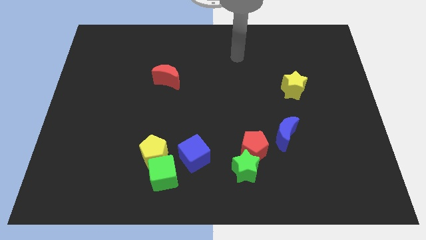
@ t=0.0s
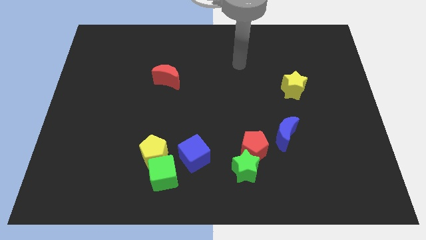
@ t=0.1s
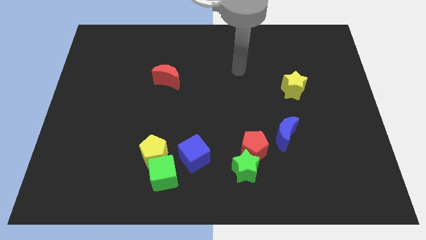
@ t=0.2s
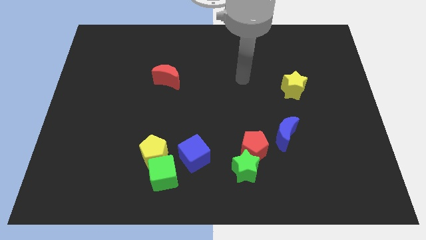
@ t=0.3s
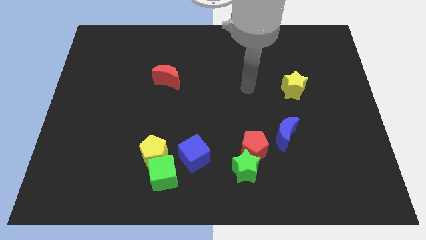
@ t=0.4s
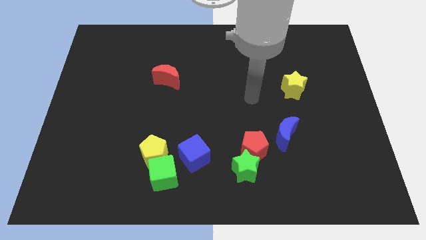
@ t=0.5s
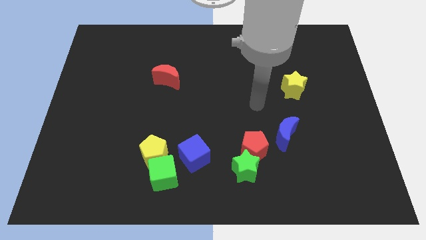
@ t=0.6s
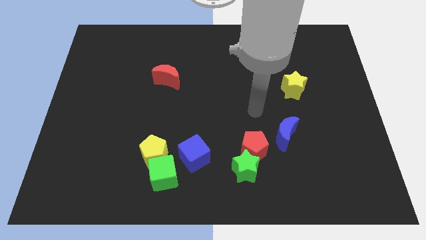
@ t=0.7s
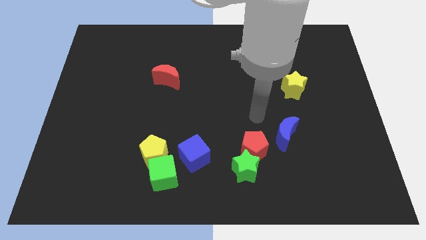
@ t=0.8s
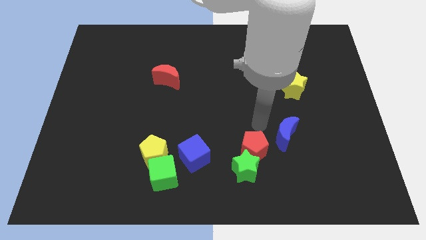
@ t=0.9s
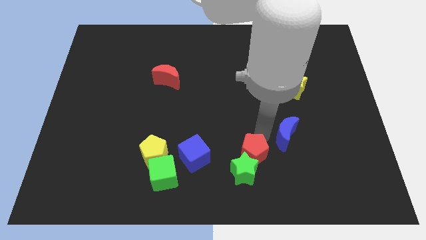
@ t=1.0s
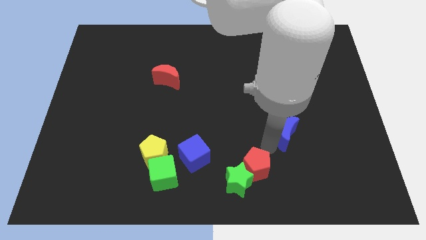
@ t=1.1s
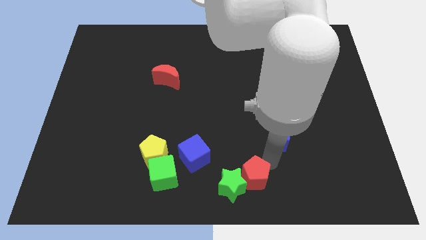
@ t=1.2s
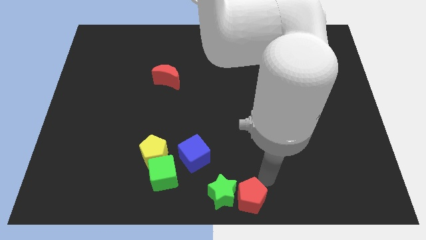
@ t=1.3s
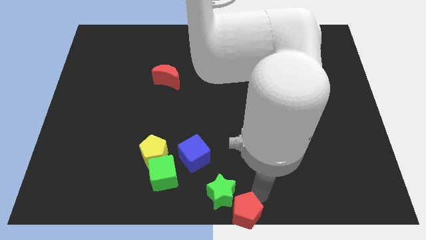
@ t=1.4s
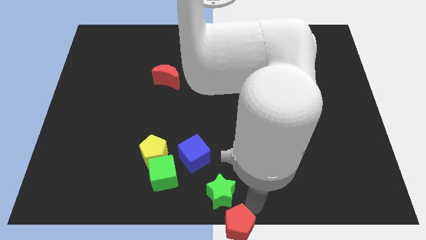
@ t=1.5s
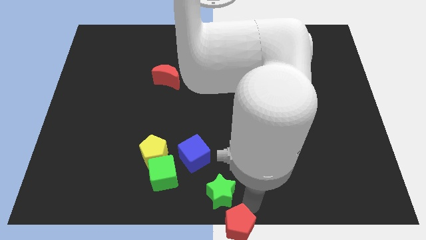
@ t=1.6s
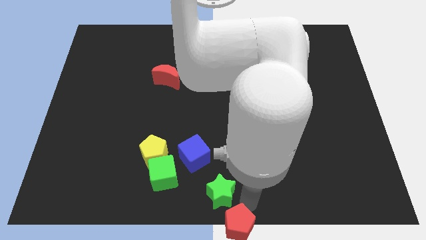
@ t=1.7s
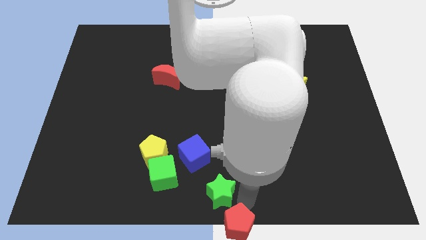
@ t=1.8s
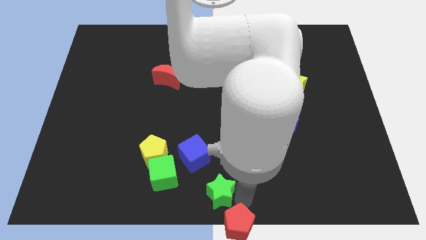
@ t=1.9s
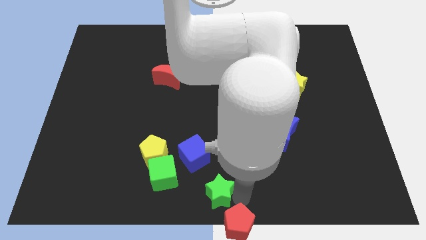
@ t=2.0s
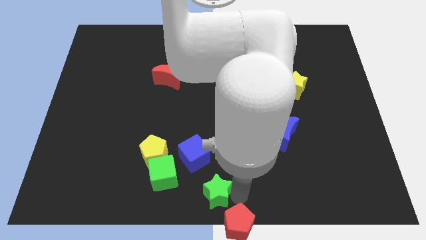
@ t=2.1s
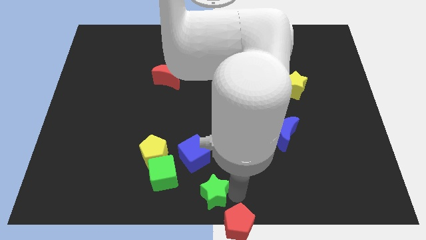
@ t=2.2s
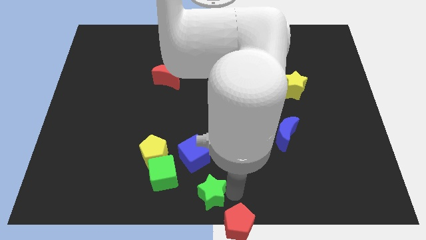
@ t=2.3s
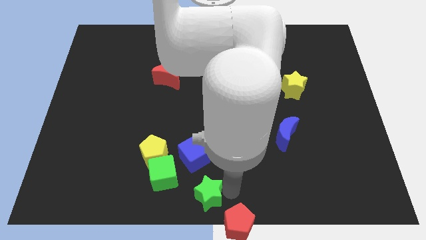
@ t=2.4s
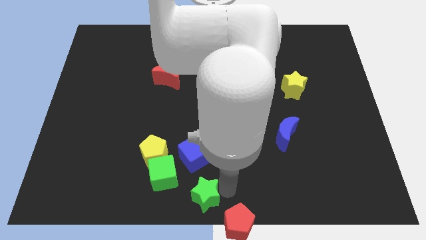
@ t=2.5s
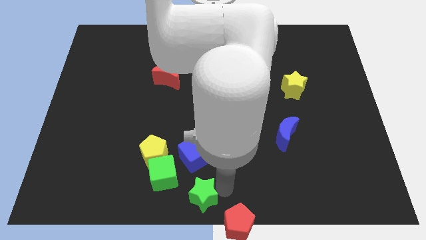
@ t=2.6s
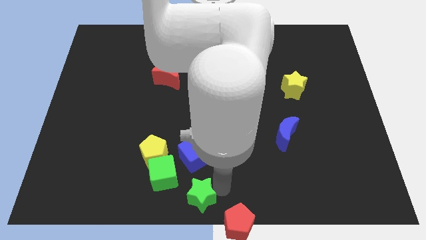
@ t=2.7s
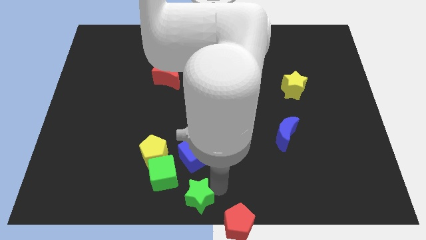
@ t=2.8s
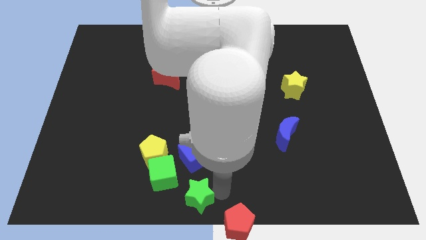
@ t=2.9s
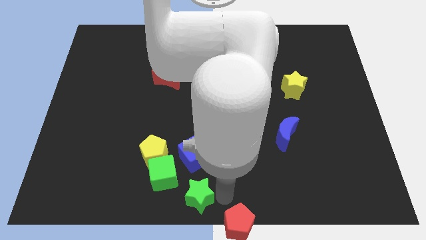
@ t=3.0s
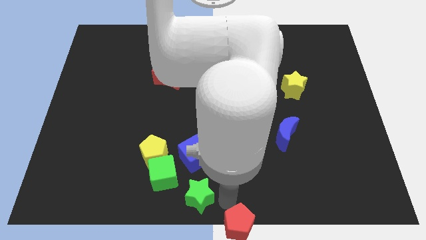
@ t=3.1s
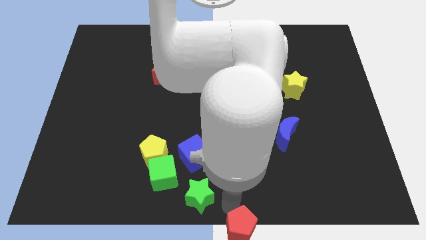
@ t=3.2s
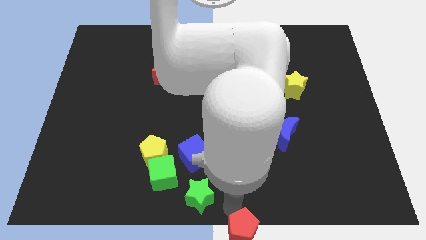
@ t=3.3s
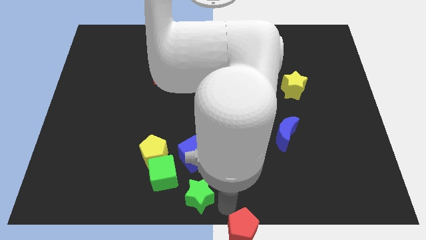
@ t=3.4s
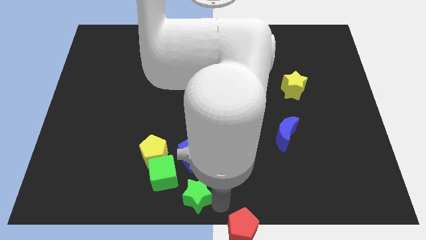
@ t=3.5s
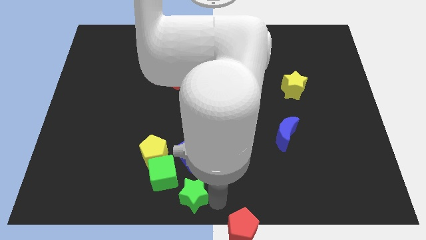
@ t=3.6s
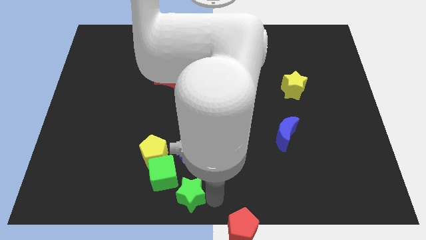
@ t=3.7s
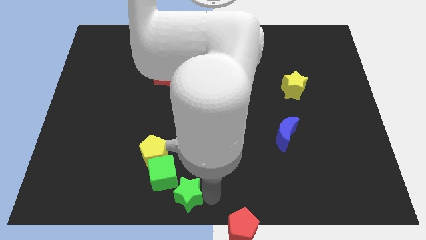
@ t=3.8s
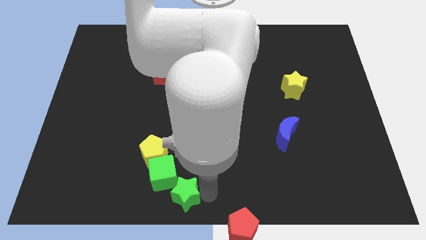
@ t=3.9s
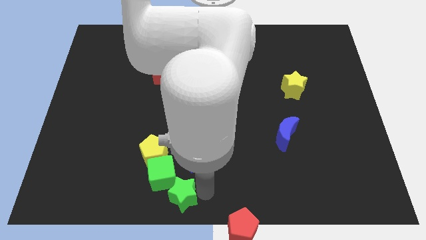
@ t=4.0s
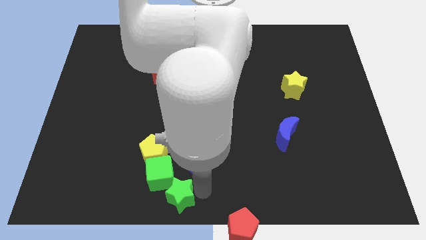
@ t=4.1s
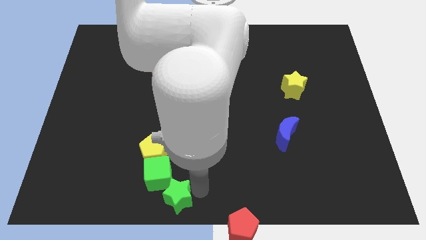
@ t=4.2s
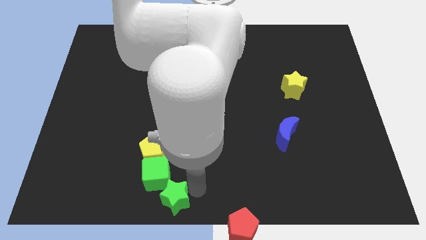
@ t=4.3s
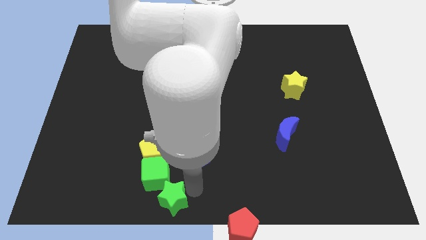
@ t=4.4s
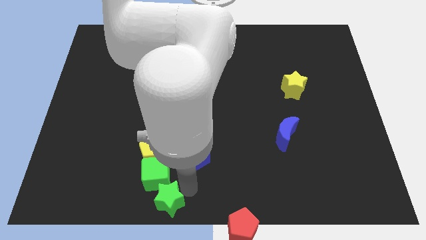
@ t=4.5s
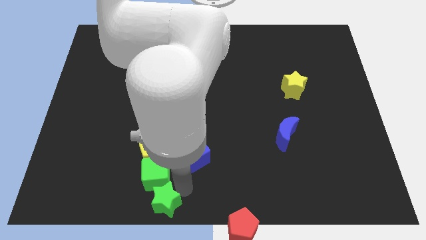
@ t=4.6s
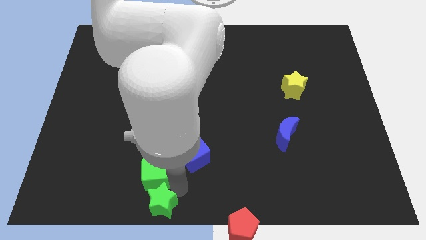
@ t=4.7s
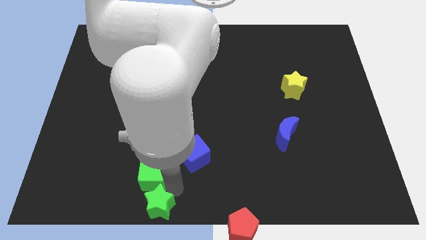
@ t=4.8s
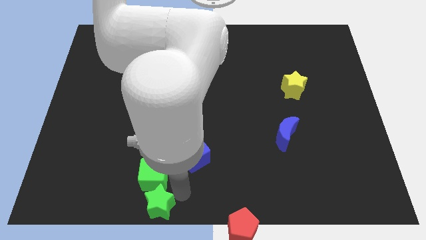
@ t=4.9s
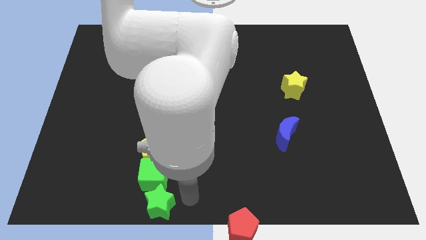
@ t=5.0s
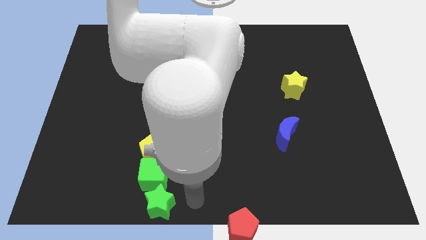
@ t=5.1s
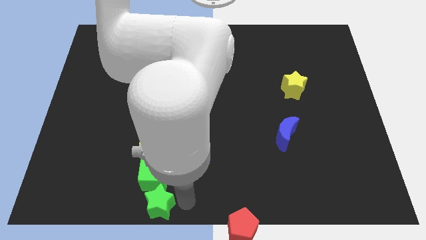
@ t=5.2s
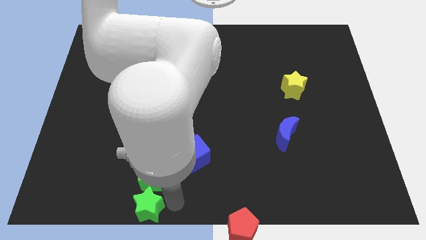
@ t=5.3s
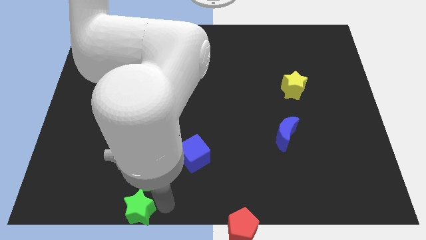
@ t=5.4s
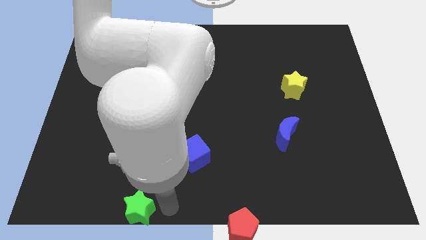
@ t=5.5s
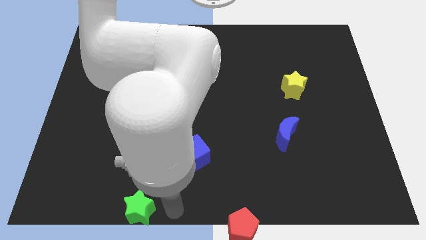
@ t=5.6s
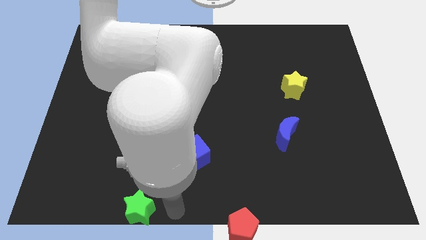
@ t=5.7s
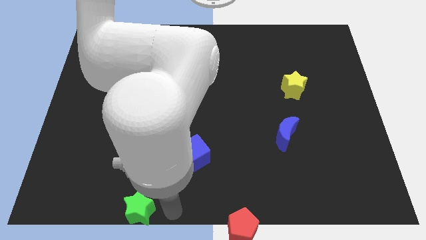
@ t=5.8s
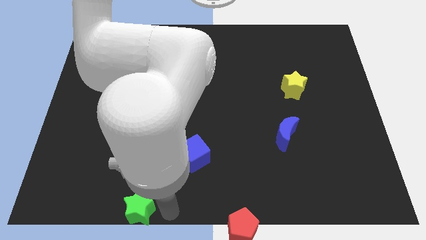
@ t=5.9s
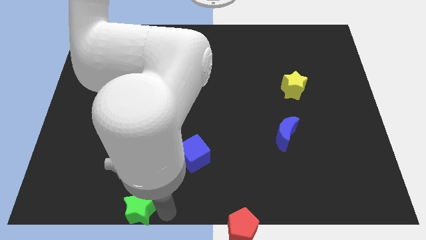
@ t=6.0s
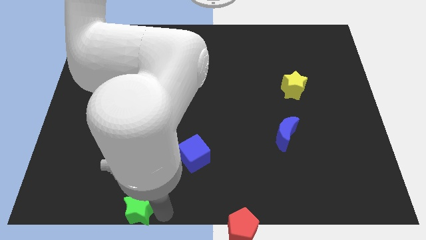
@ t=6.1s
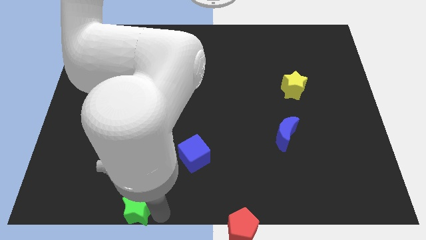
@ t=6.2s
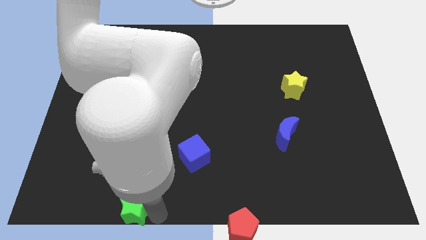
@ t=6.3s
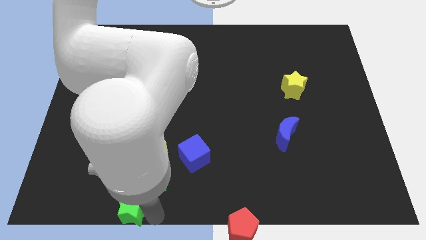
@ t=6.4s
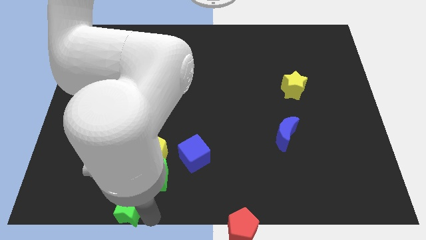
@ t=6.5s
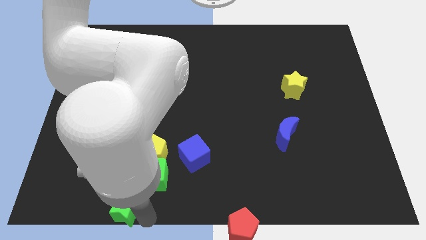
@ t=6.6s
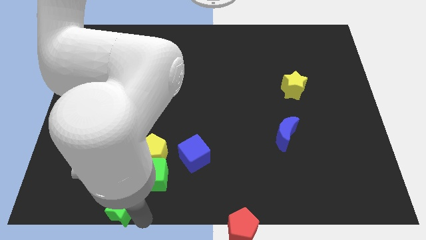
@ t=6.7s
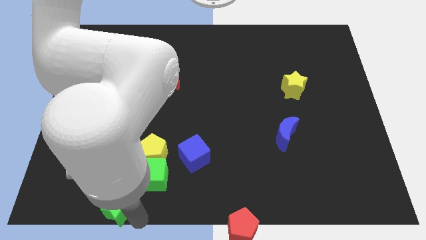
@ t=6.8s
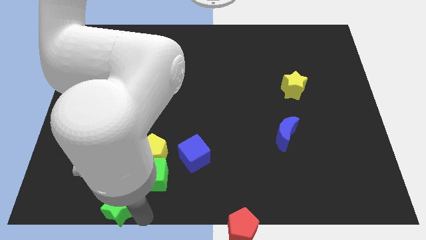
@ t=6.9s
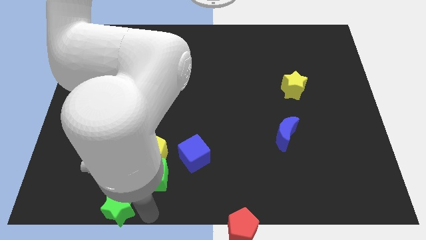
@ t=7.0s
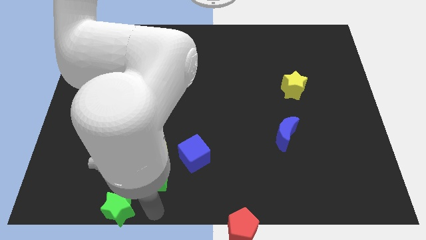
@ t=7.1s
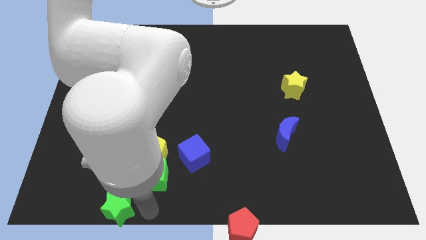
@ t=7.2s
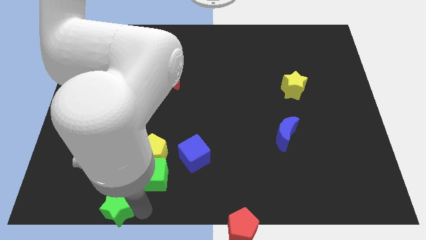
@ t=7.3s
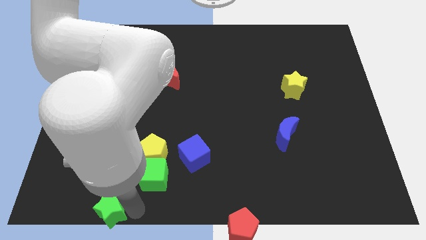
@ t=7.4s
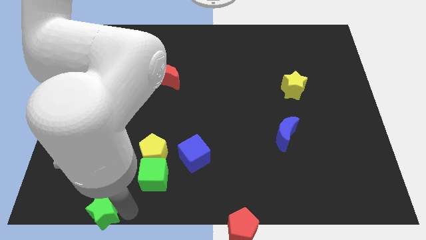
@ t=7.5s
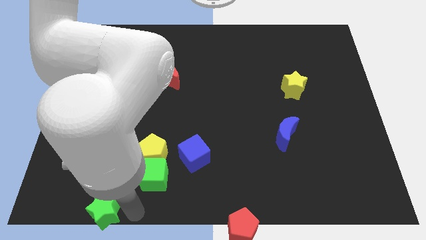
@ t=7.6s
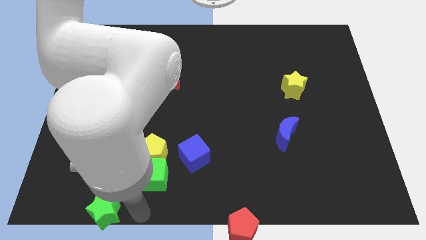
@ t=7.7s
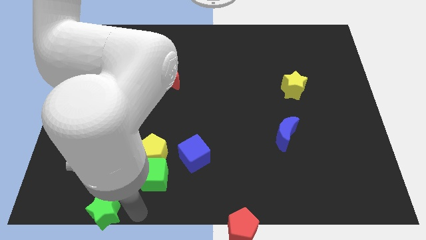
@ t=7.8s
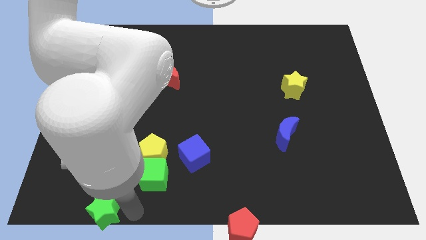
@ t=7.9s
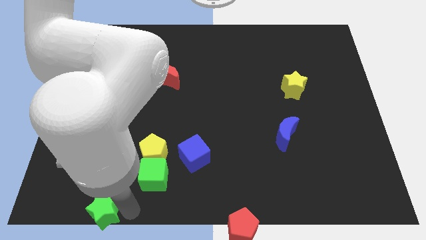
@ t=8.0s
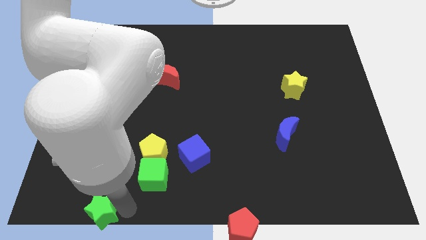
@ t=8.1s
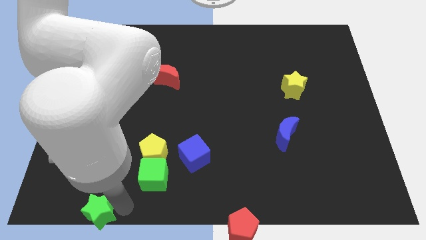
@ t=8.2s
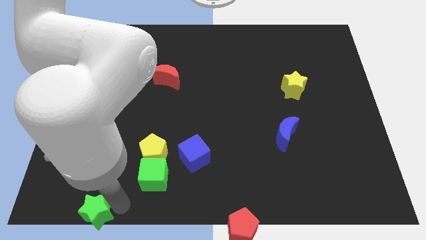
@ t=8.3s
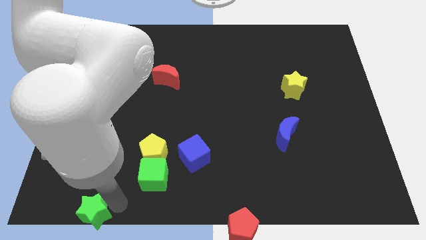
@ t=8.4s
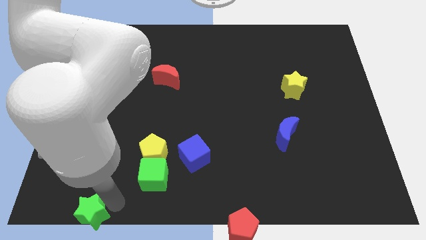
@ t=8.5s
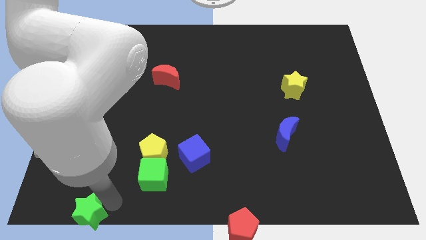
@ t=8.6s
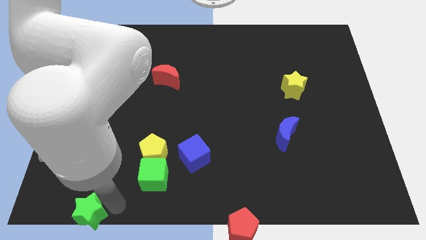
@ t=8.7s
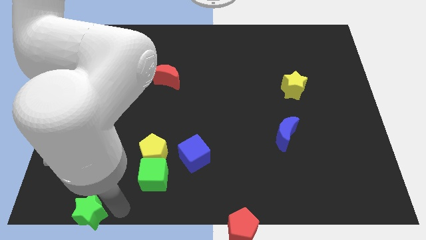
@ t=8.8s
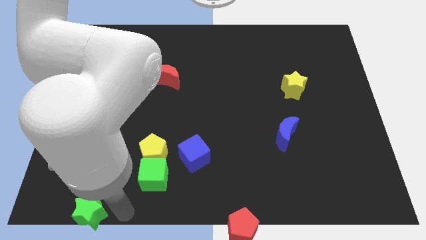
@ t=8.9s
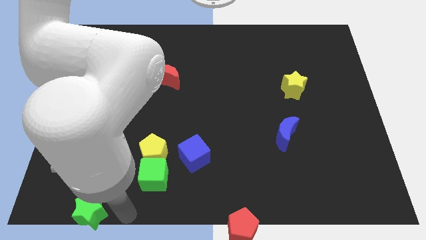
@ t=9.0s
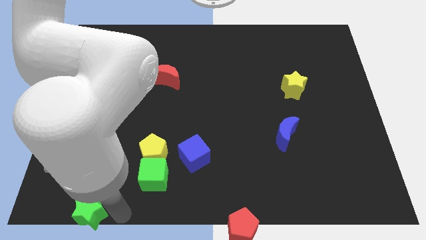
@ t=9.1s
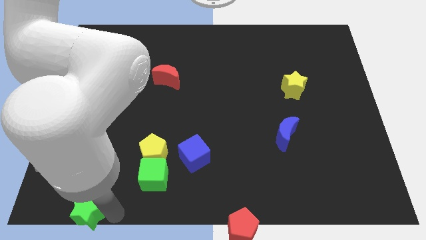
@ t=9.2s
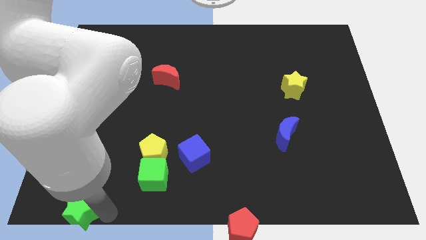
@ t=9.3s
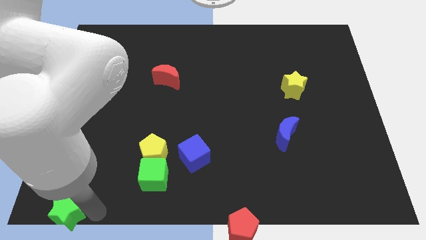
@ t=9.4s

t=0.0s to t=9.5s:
push the green star to the bottom left corner
